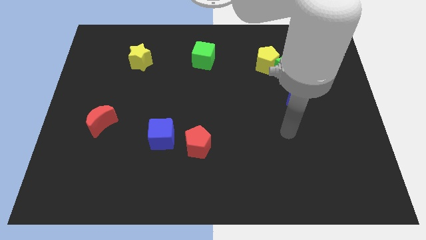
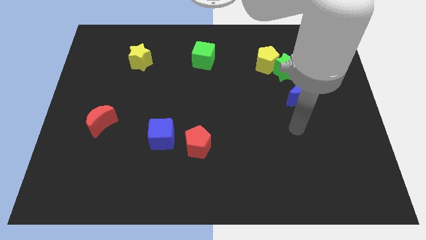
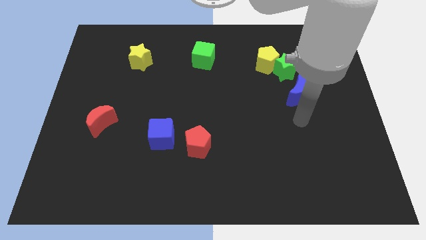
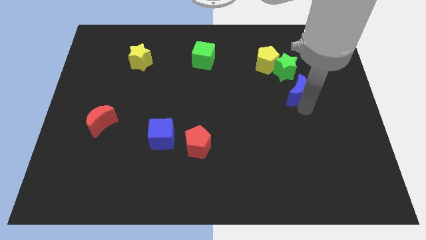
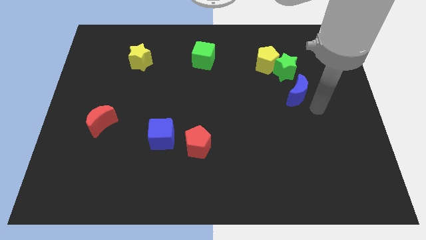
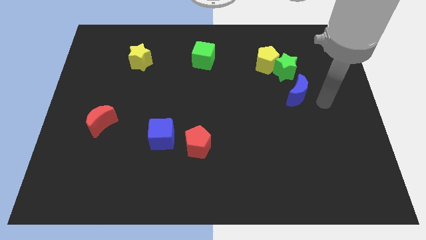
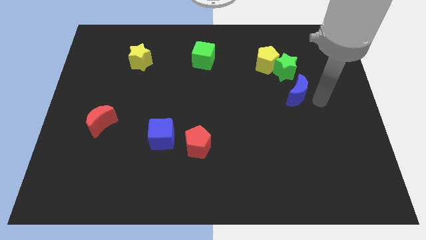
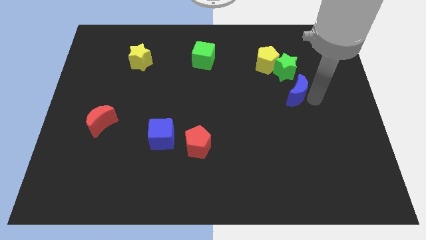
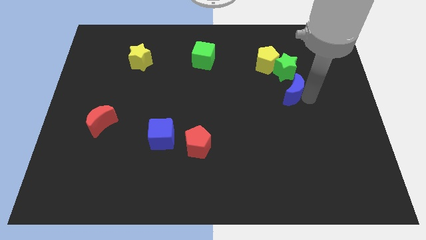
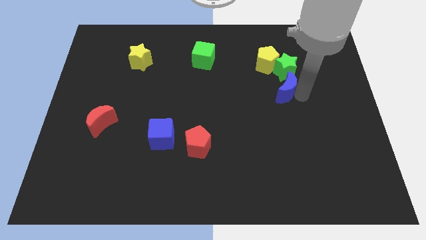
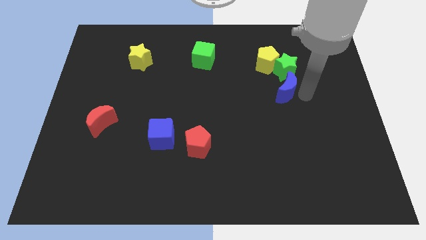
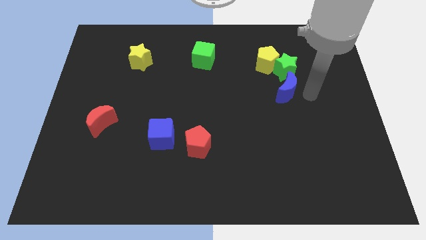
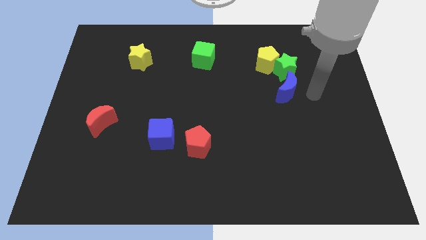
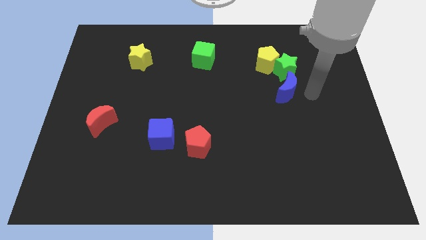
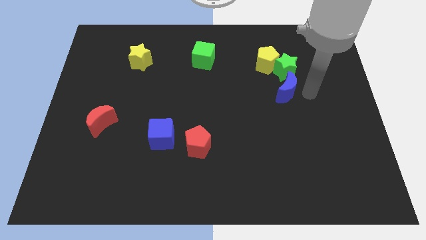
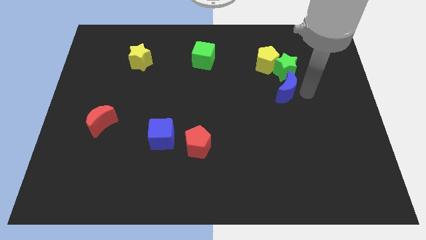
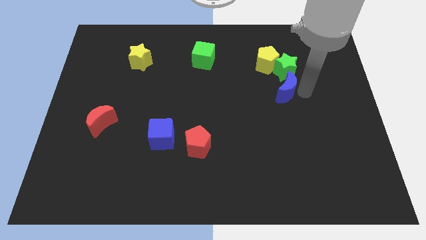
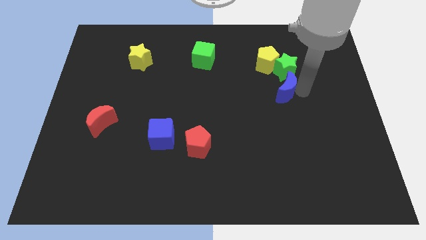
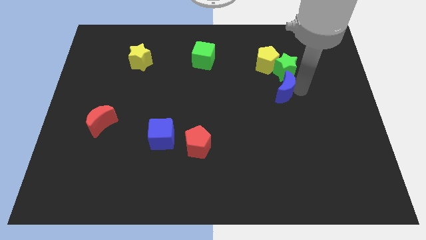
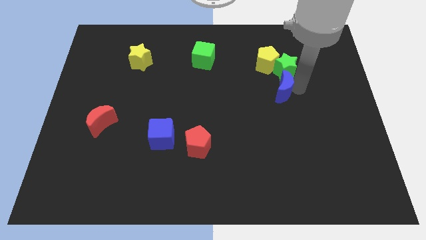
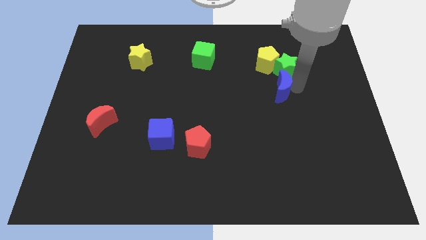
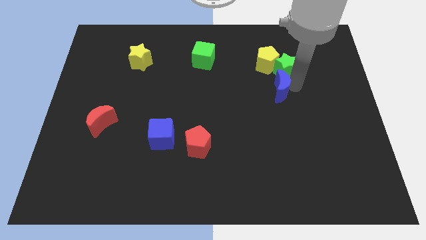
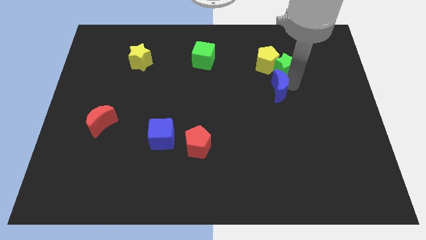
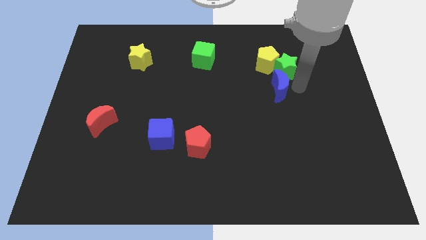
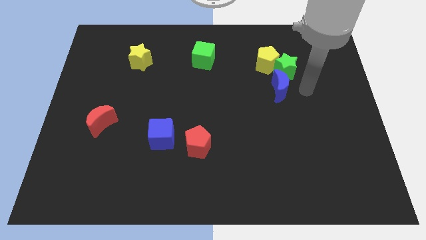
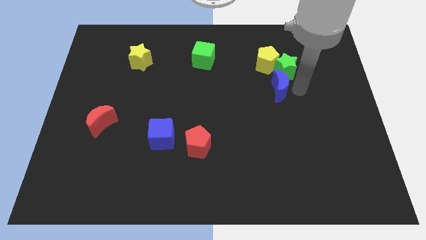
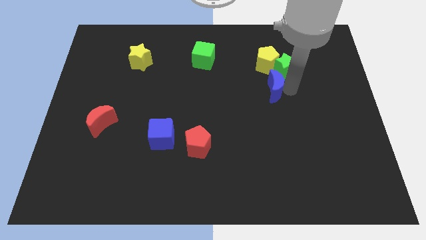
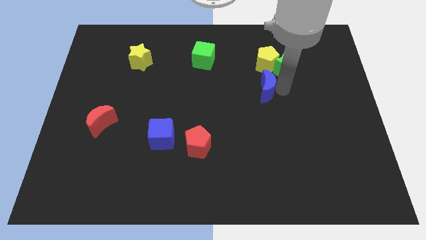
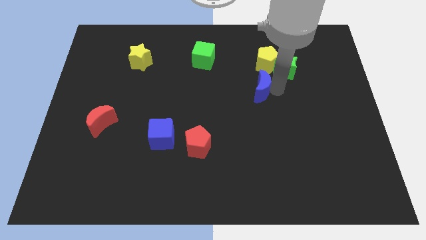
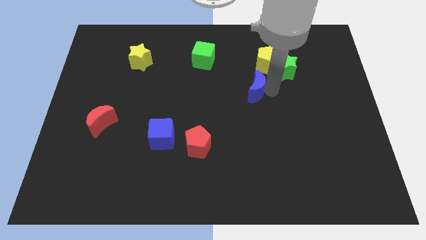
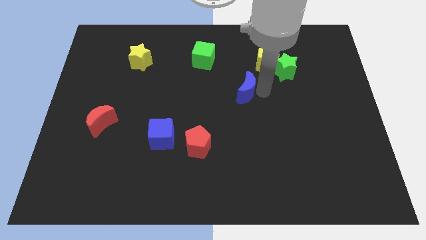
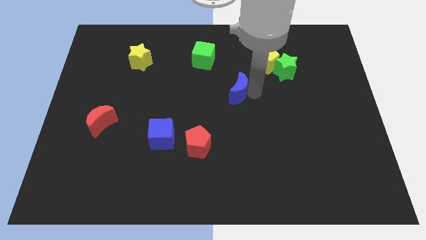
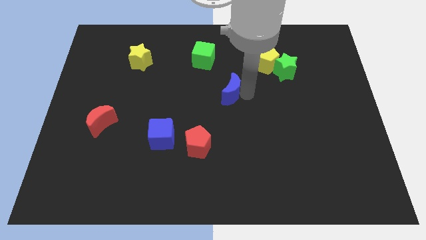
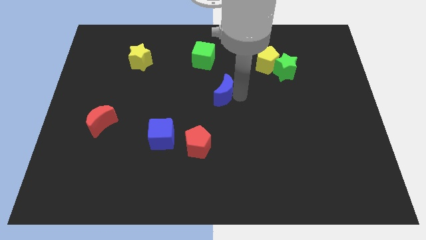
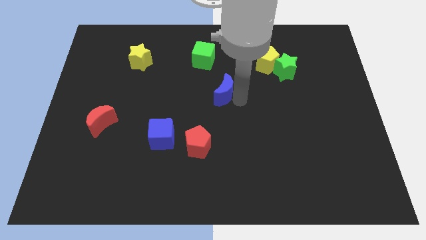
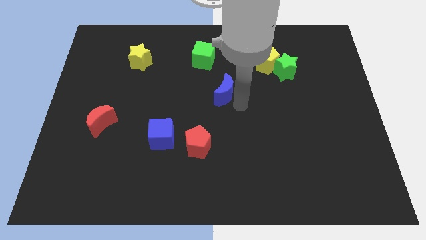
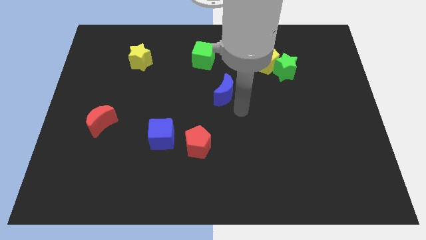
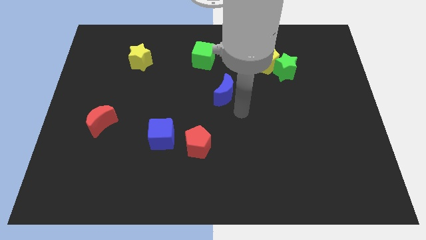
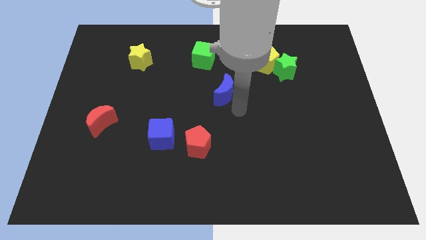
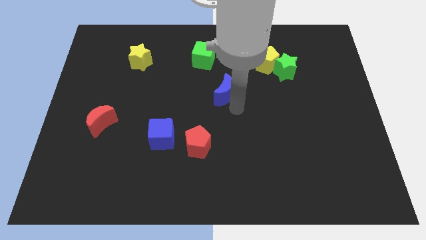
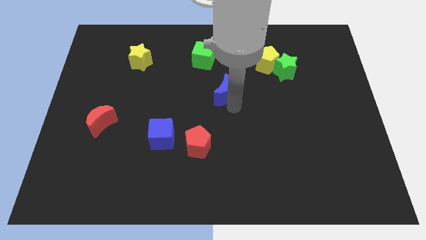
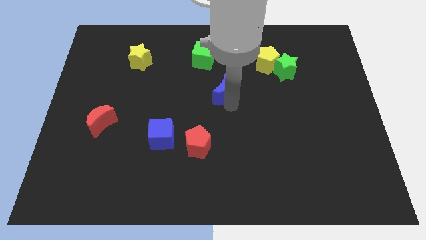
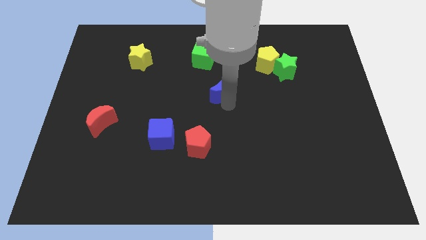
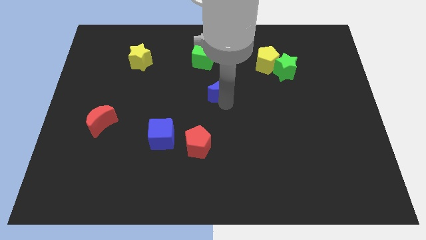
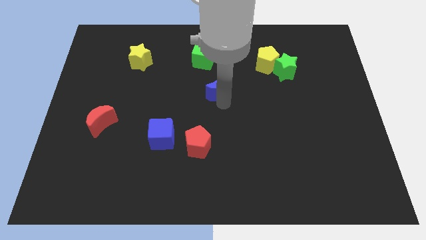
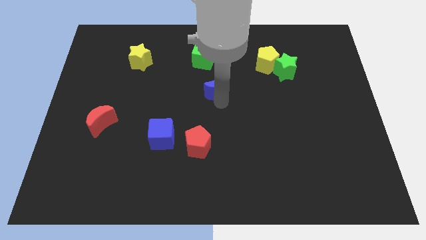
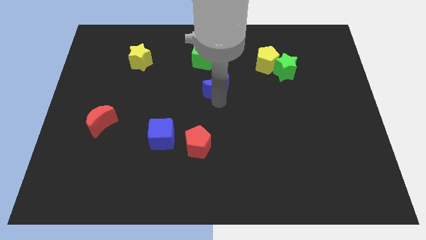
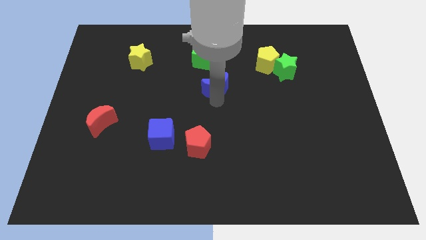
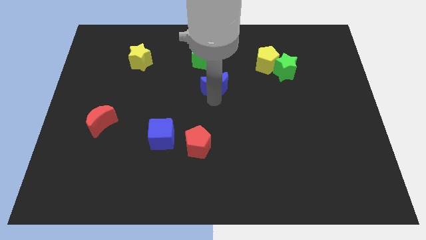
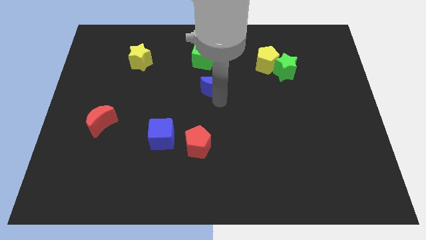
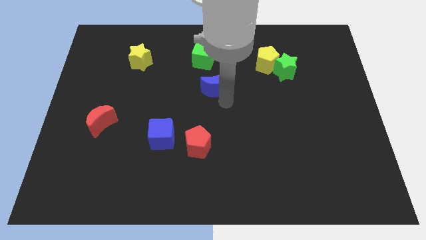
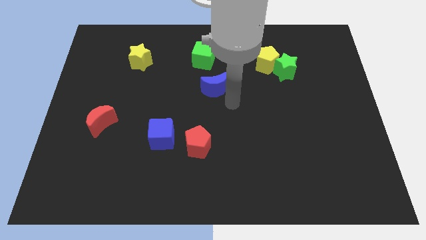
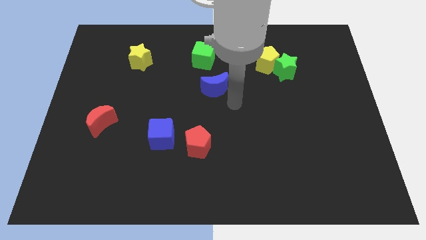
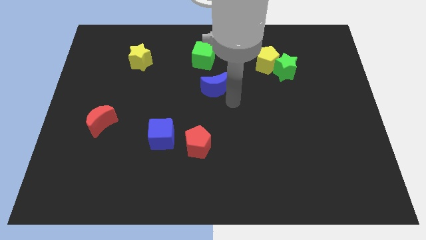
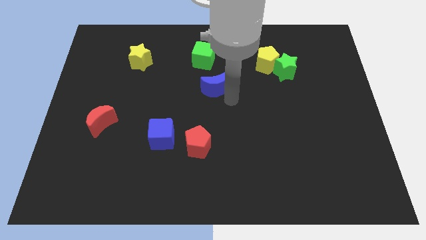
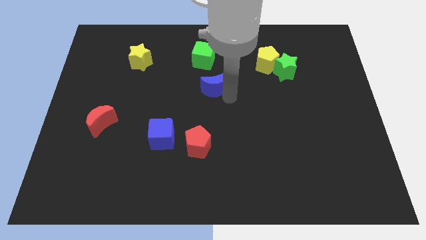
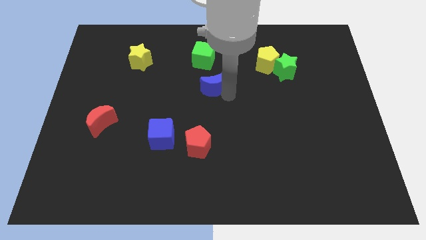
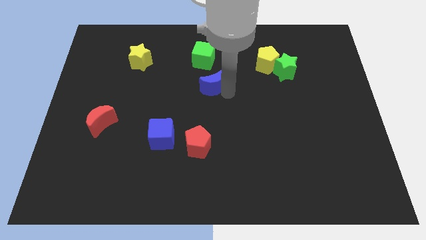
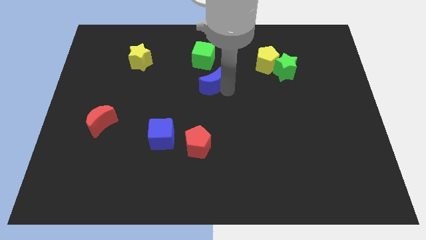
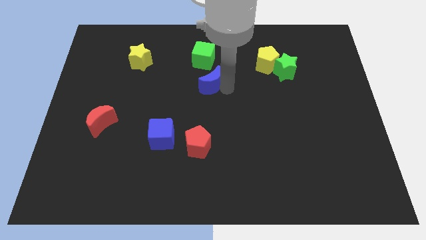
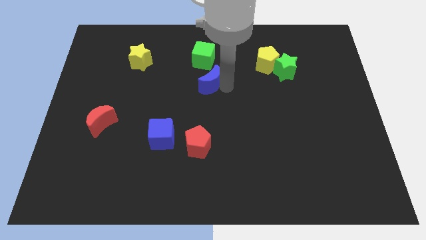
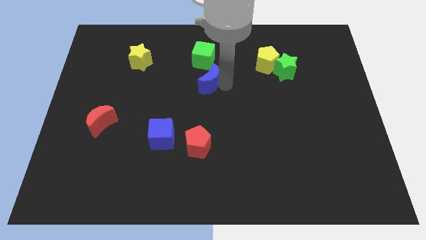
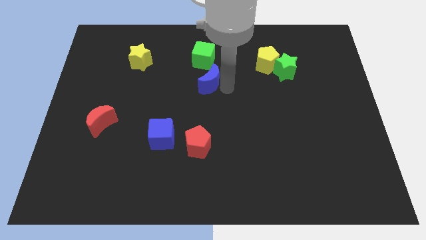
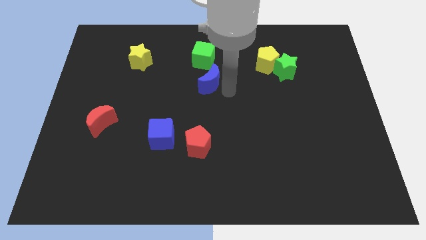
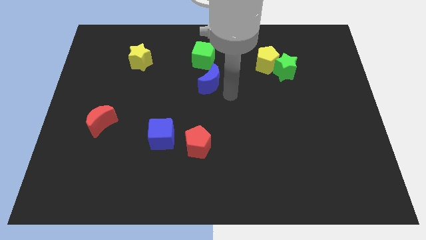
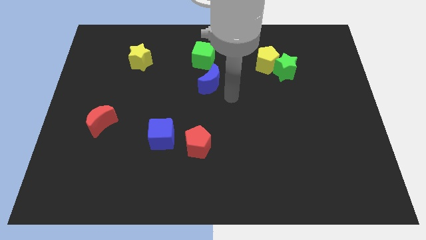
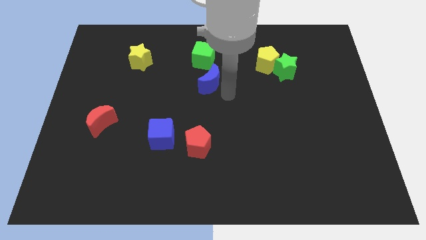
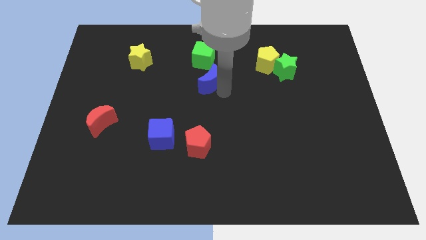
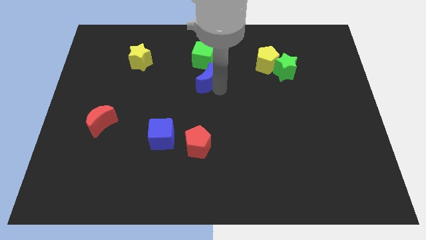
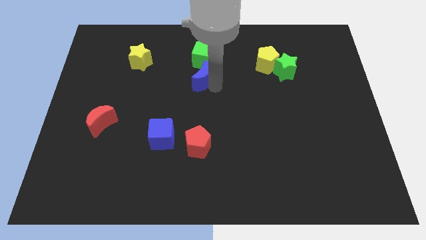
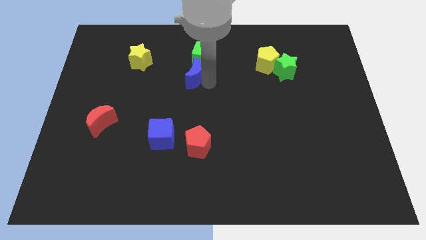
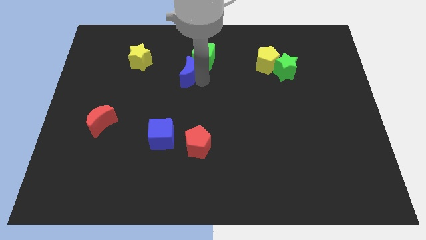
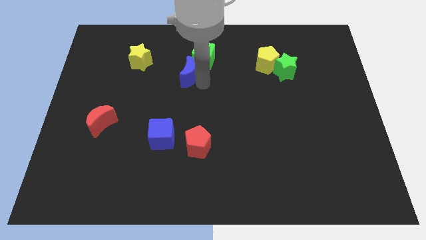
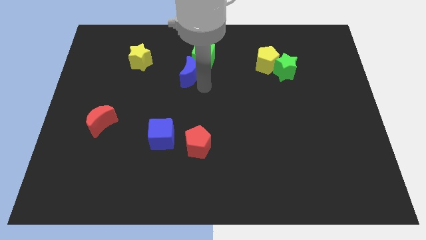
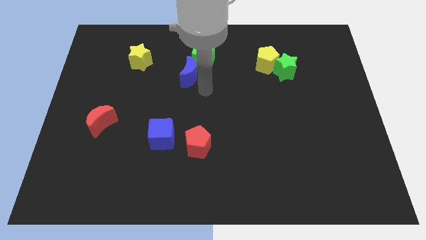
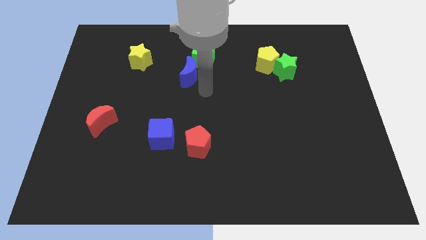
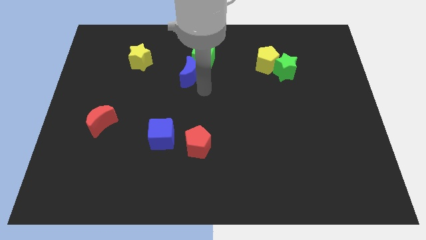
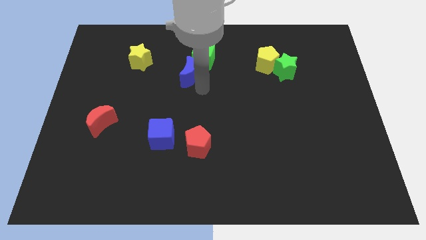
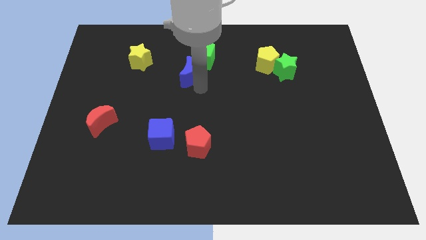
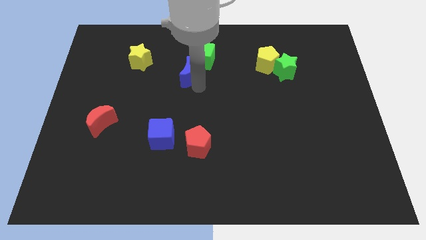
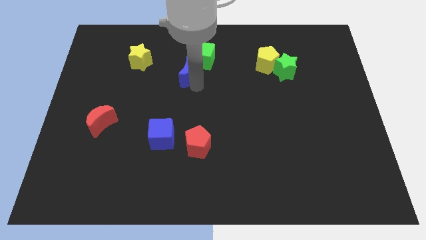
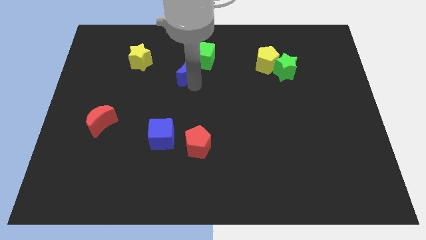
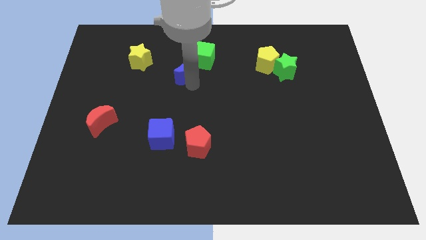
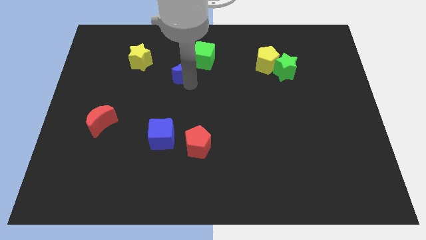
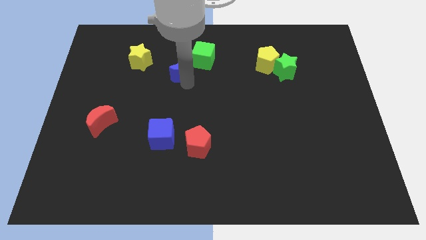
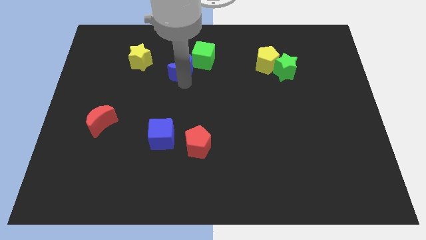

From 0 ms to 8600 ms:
slide the blue moon to the left of the green cube
